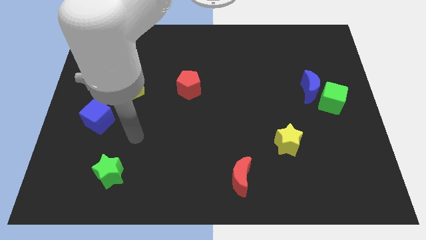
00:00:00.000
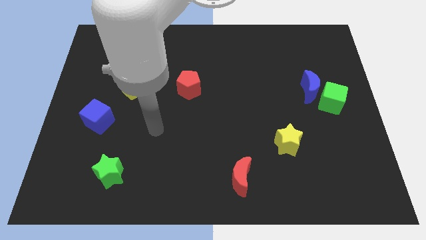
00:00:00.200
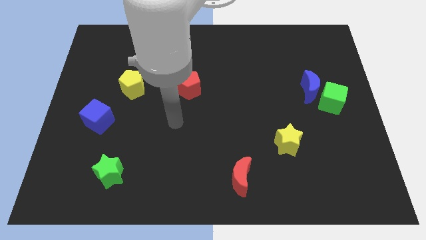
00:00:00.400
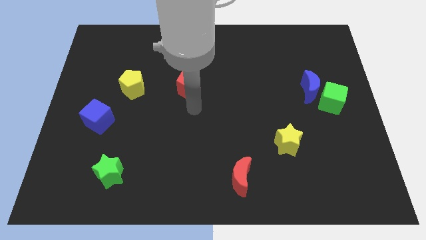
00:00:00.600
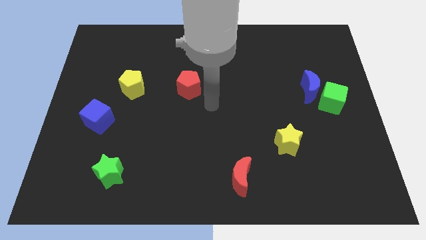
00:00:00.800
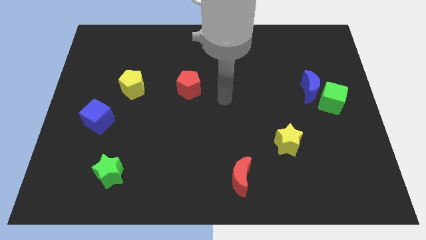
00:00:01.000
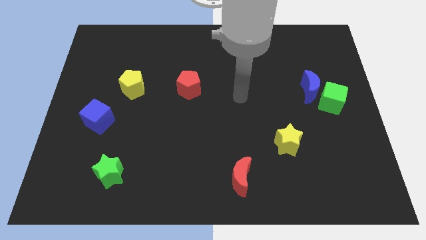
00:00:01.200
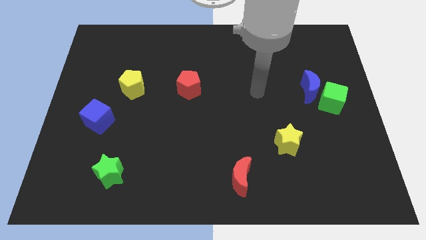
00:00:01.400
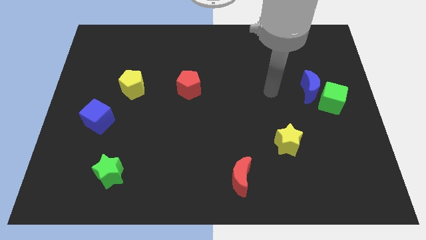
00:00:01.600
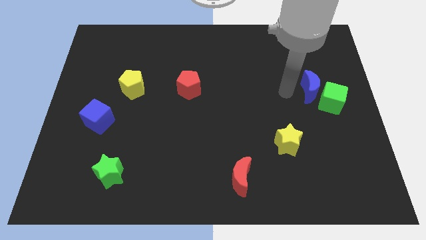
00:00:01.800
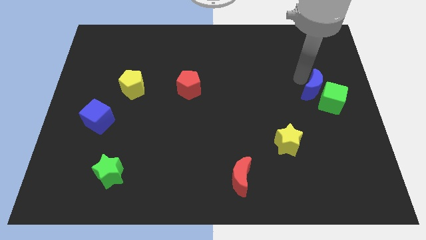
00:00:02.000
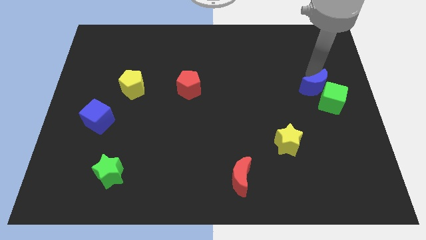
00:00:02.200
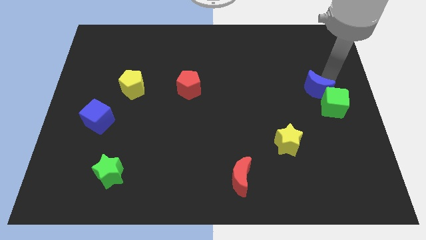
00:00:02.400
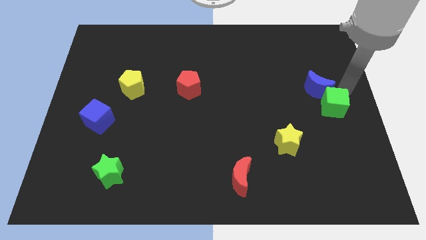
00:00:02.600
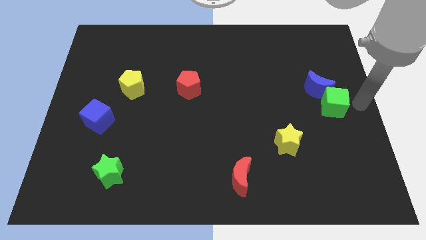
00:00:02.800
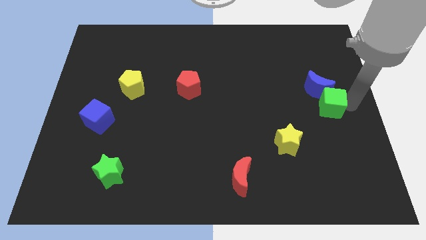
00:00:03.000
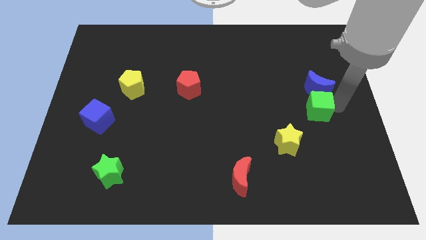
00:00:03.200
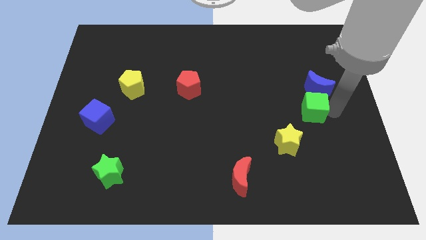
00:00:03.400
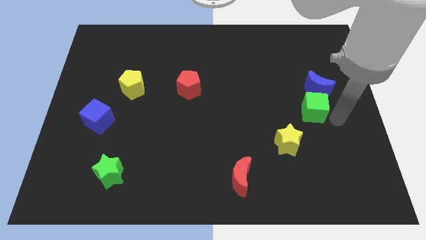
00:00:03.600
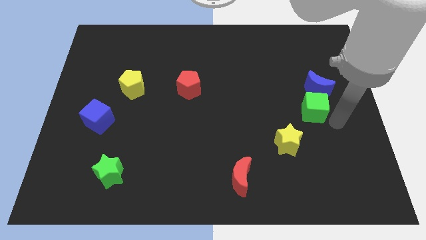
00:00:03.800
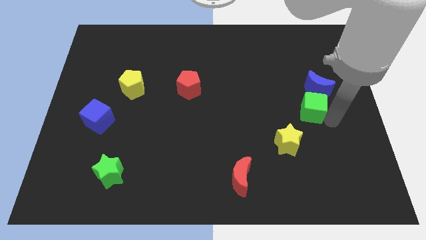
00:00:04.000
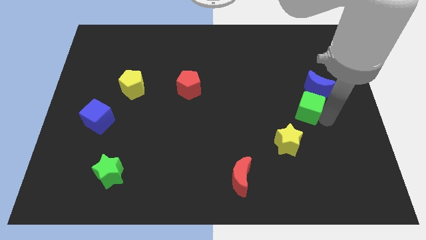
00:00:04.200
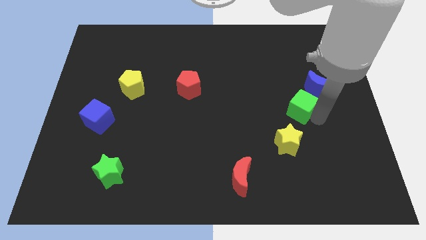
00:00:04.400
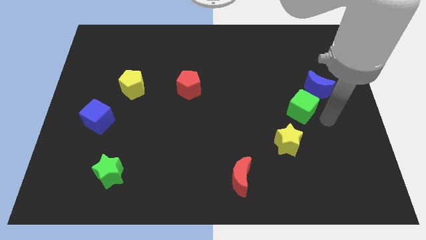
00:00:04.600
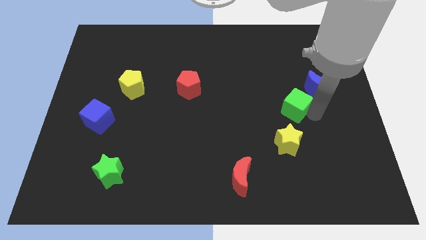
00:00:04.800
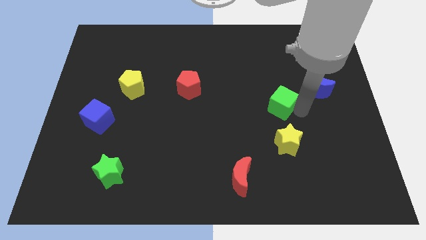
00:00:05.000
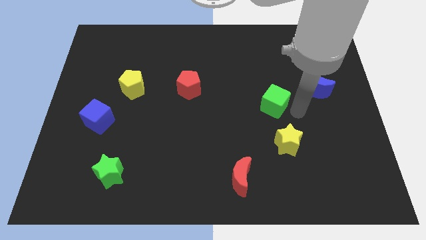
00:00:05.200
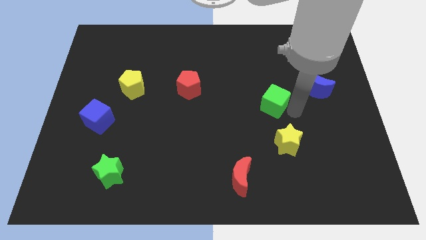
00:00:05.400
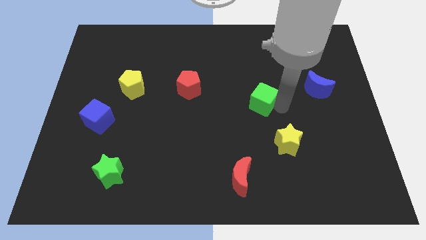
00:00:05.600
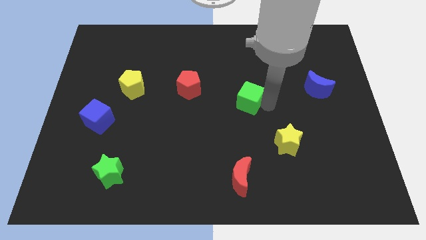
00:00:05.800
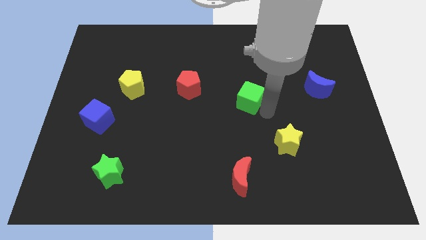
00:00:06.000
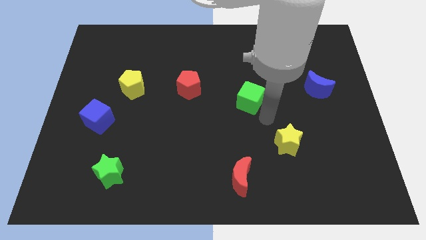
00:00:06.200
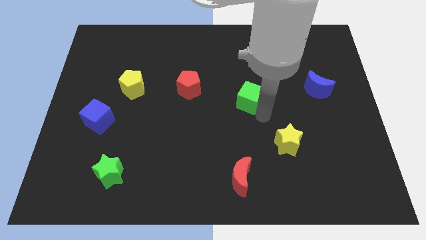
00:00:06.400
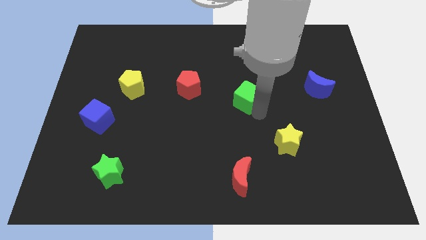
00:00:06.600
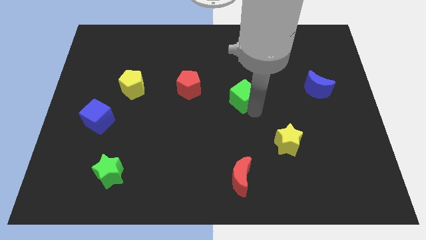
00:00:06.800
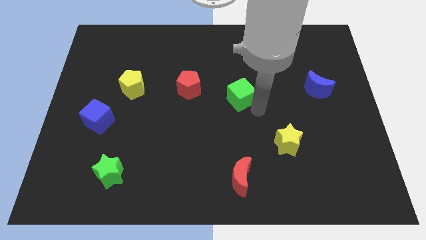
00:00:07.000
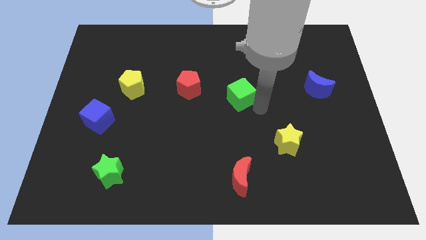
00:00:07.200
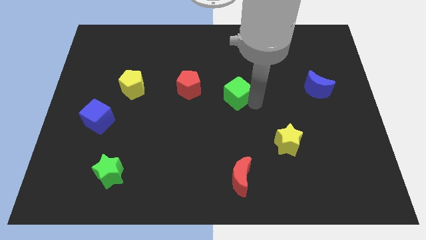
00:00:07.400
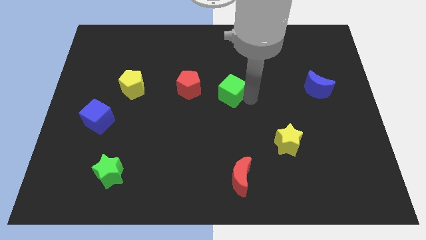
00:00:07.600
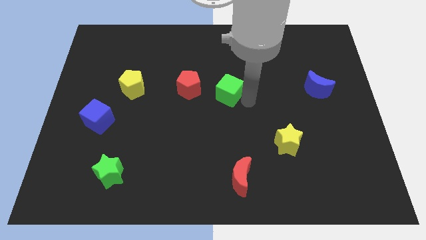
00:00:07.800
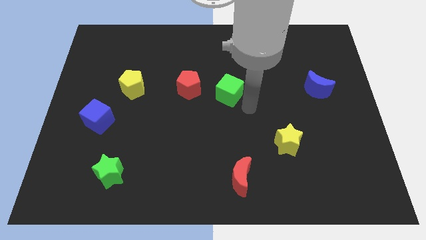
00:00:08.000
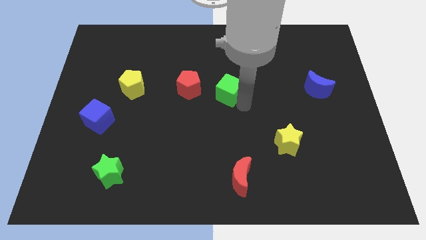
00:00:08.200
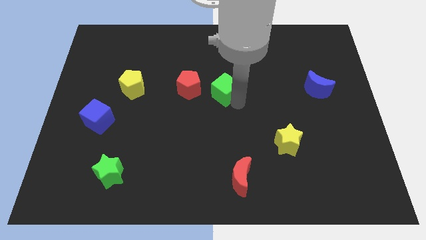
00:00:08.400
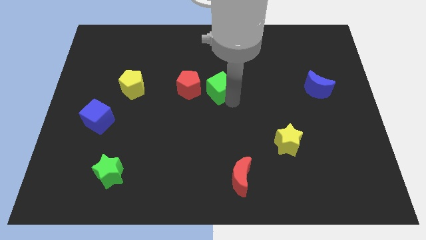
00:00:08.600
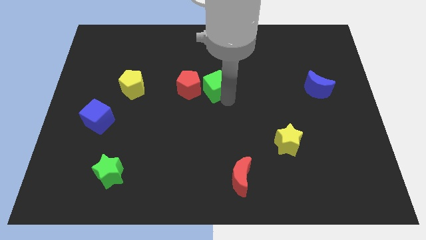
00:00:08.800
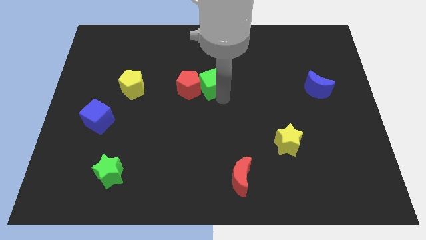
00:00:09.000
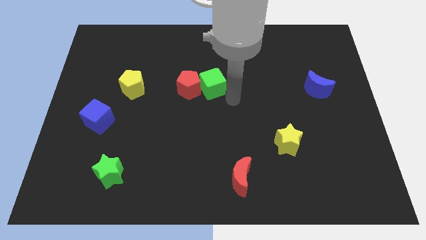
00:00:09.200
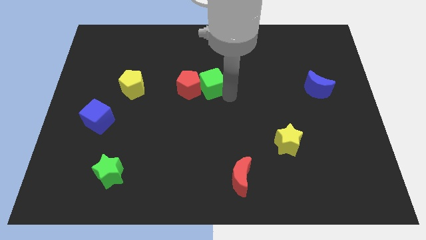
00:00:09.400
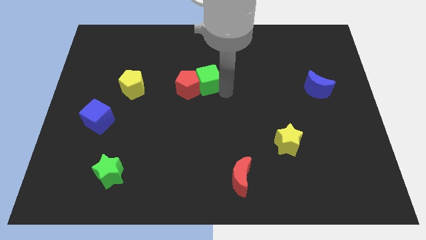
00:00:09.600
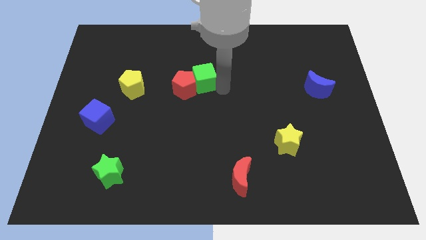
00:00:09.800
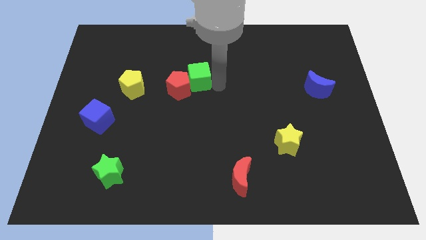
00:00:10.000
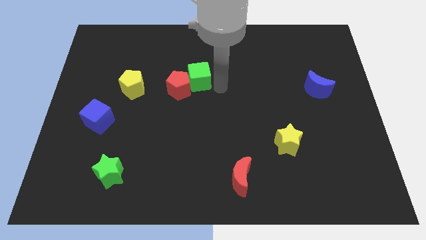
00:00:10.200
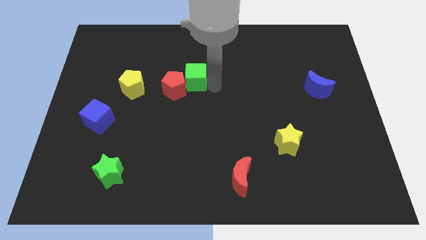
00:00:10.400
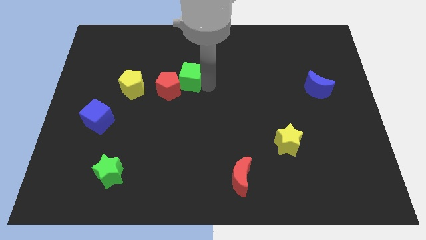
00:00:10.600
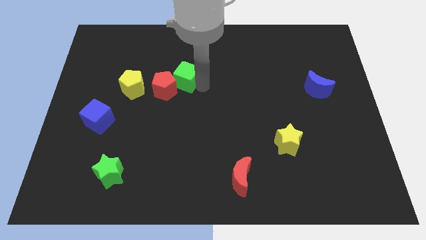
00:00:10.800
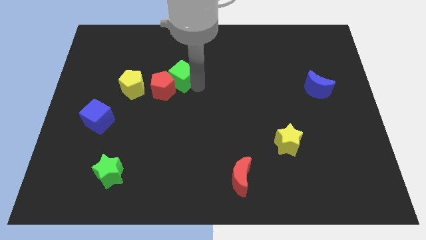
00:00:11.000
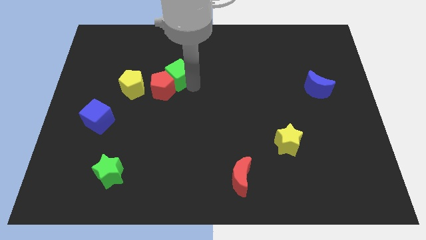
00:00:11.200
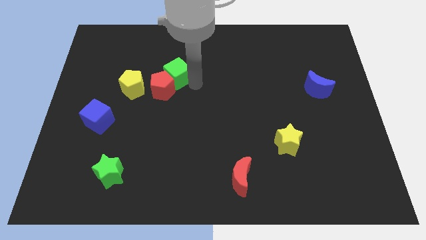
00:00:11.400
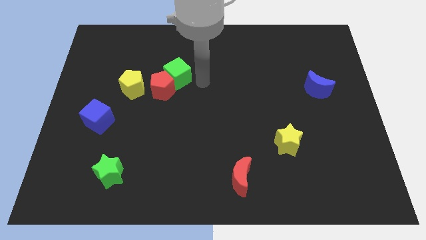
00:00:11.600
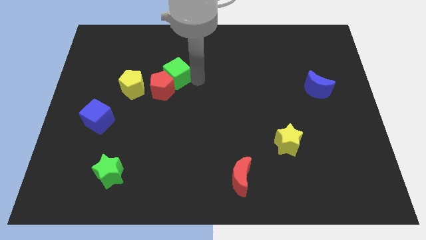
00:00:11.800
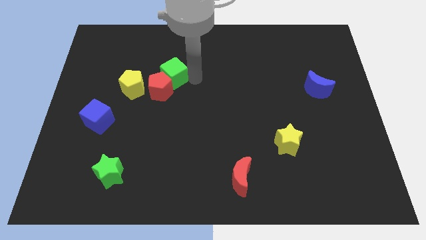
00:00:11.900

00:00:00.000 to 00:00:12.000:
put the green cube to the top right of the yellow pentagon
